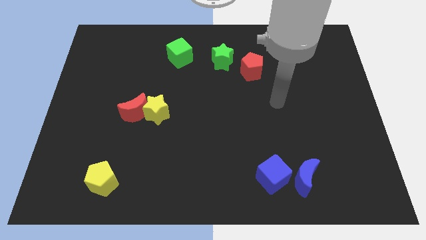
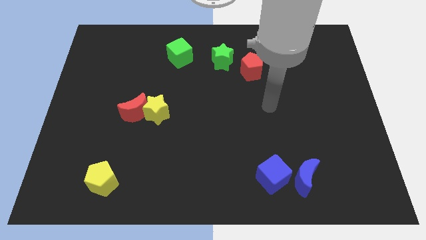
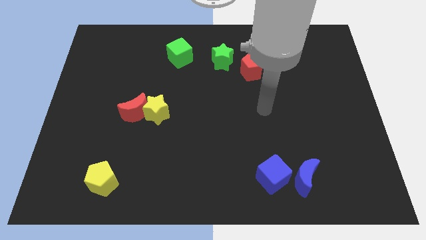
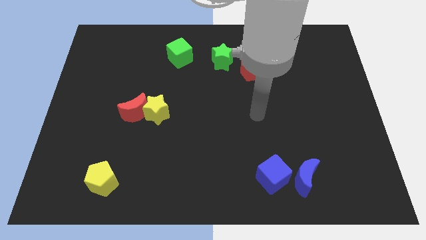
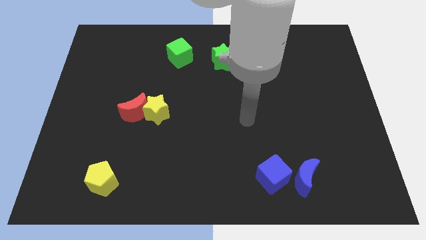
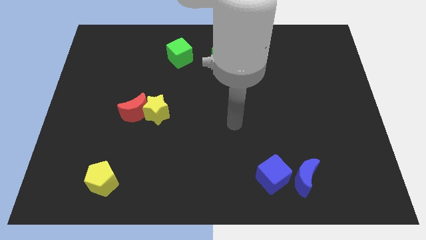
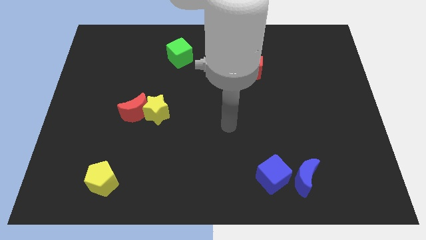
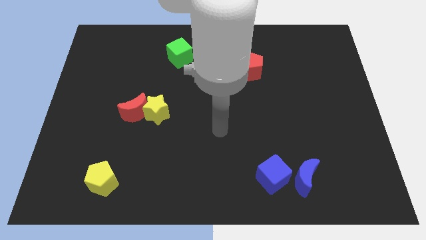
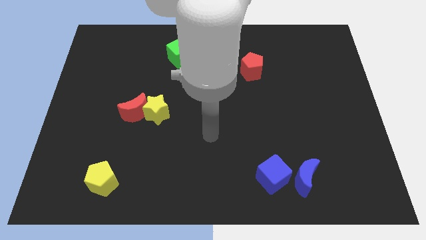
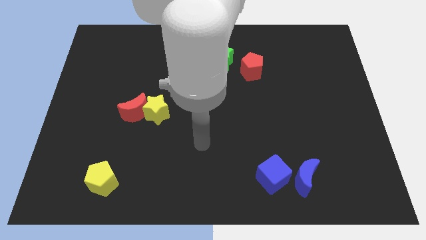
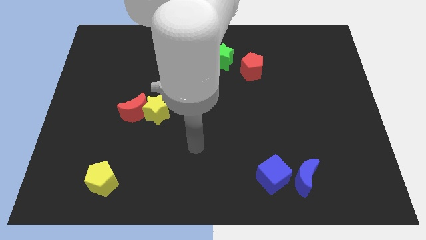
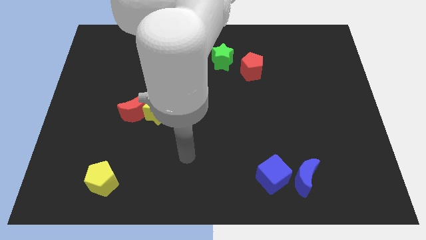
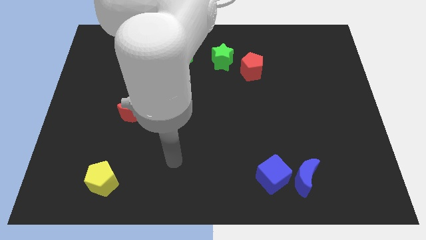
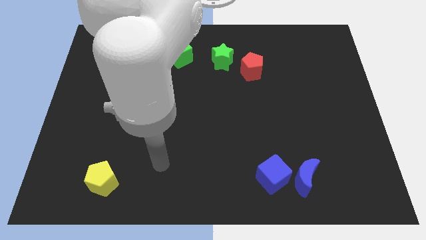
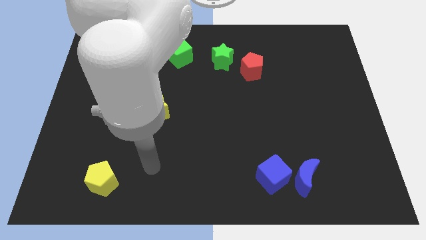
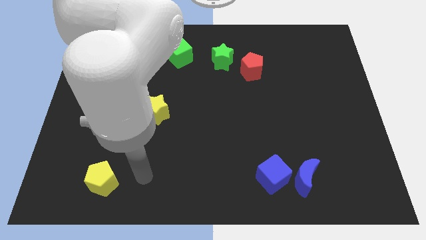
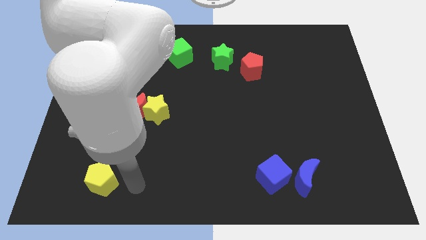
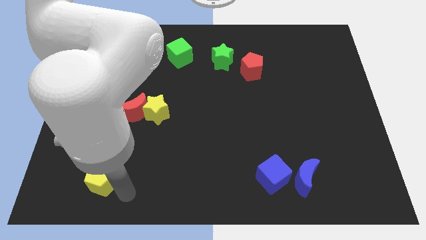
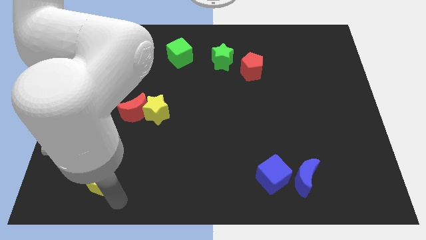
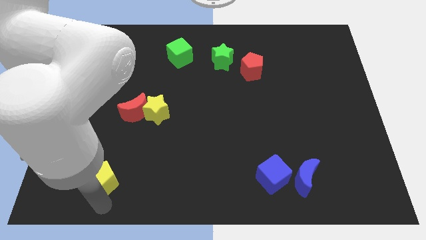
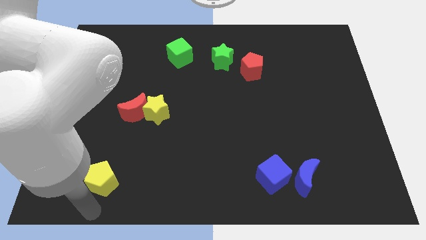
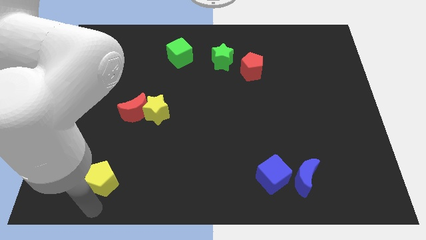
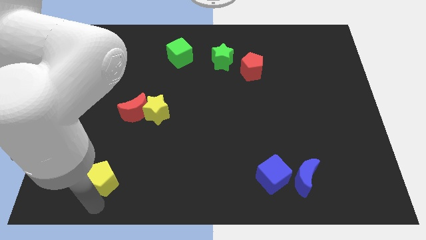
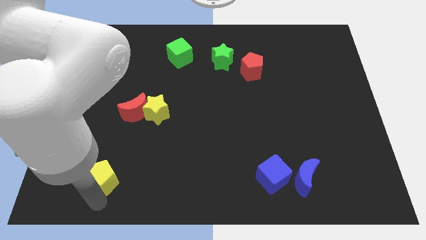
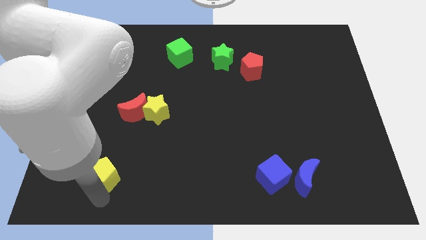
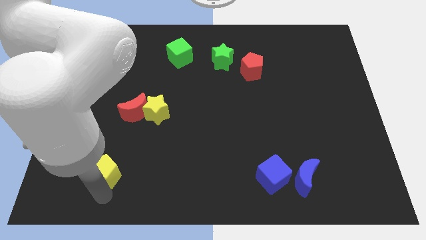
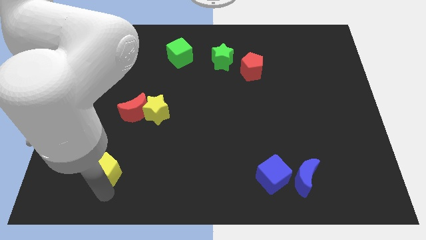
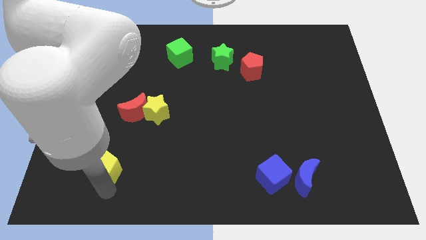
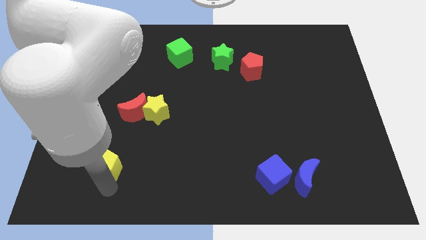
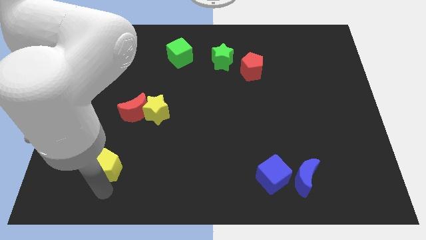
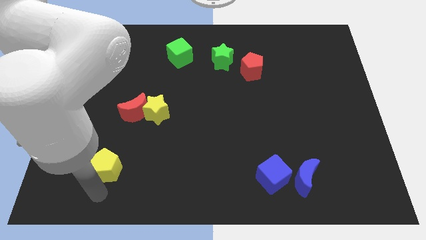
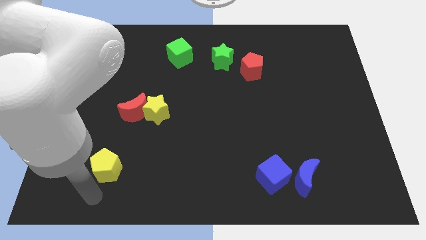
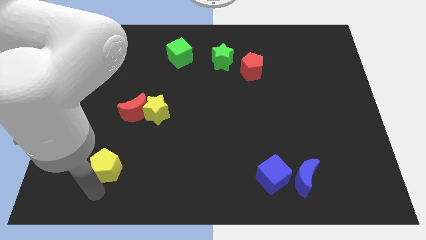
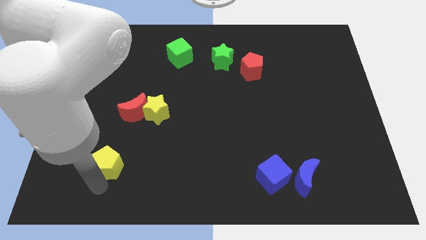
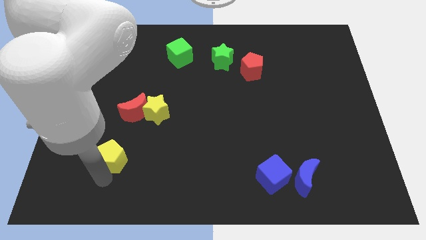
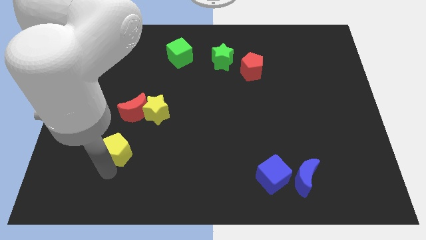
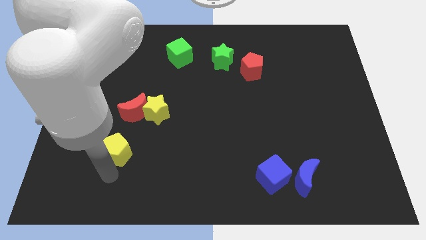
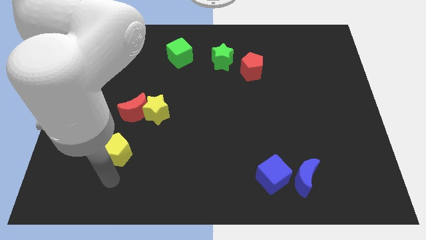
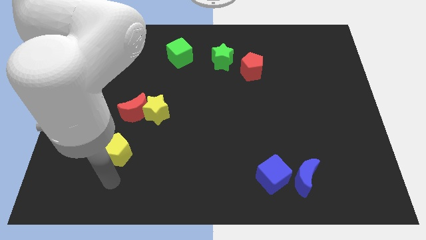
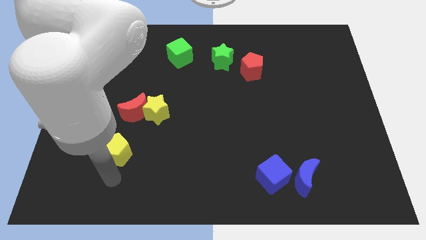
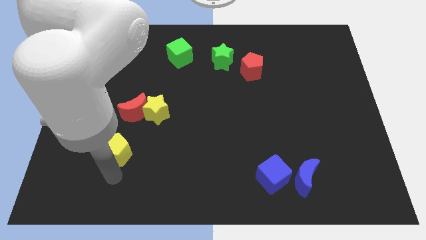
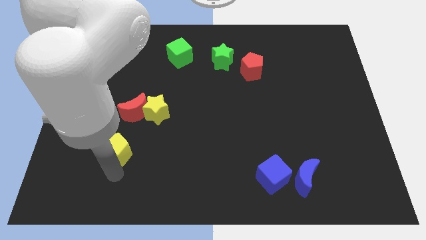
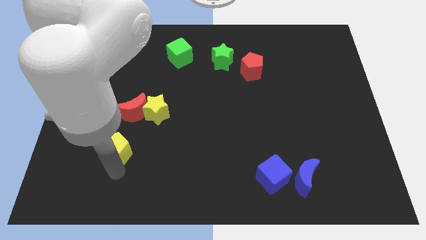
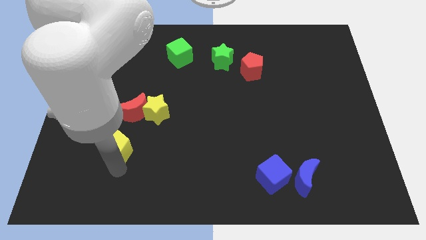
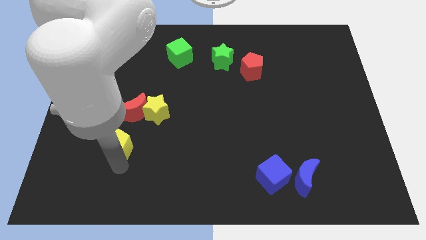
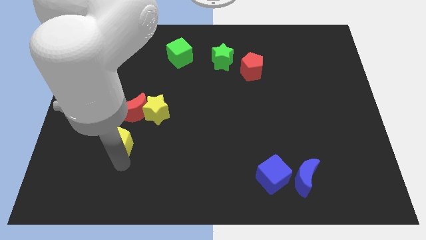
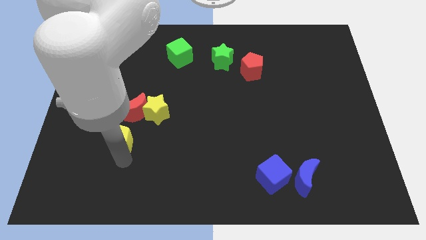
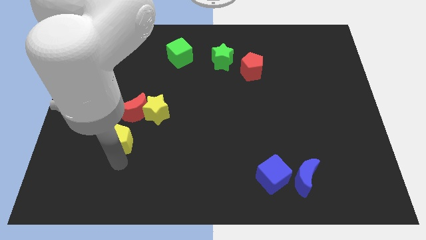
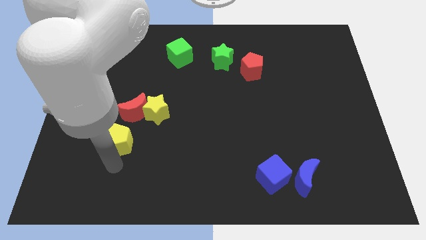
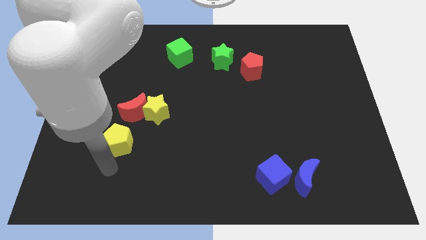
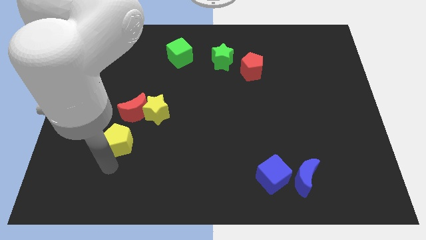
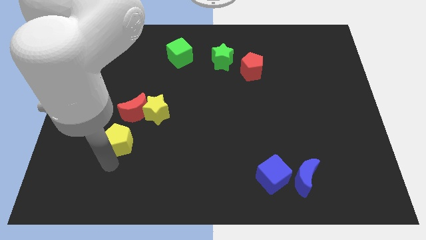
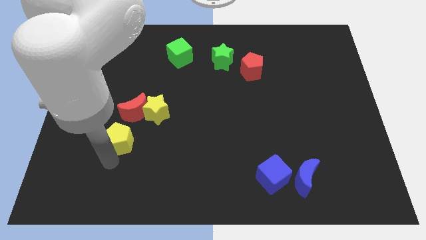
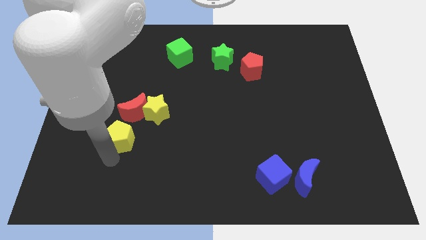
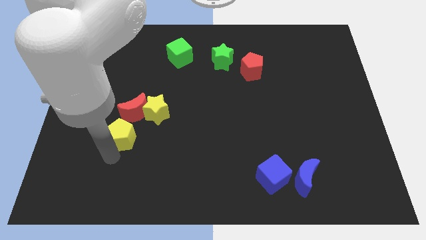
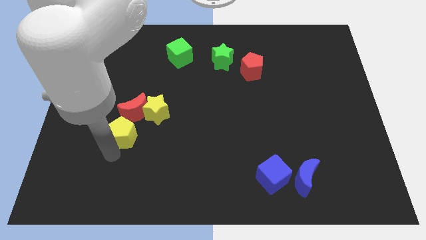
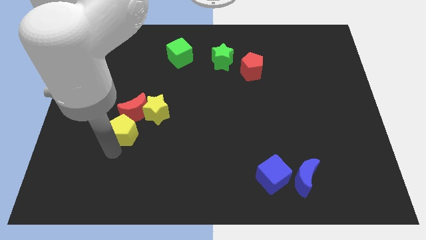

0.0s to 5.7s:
push the yellow pentagon to the red moon

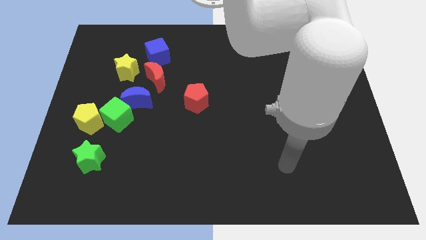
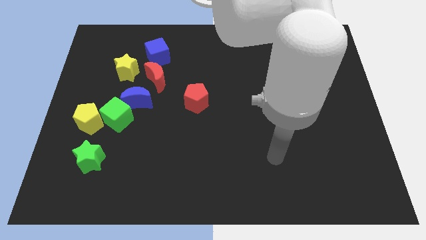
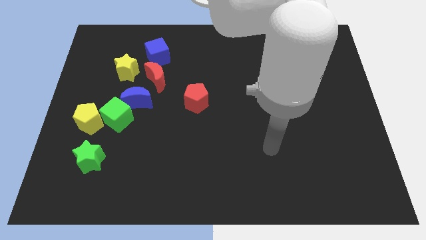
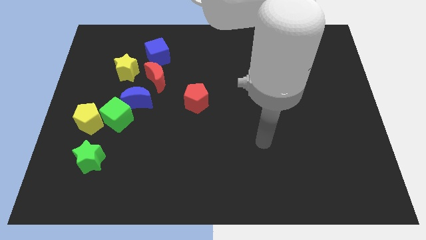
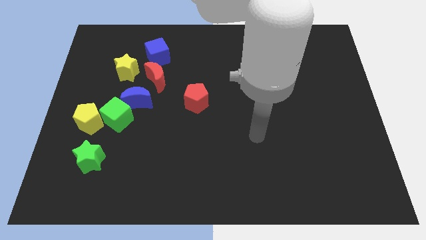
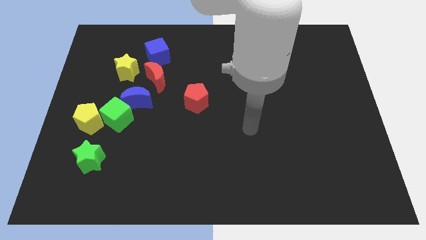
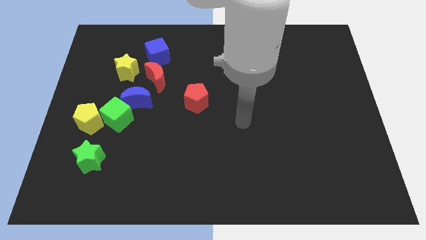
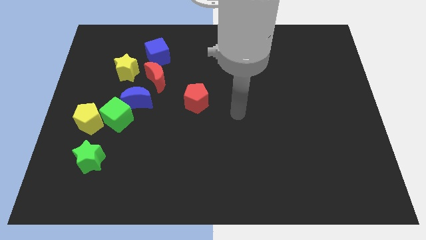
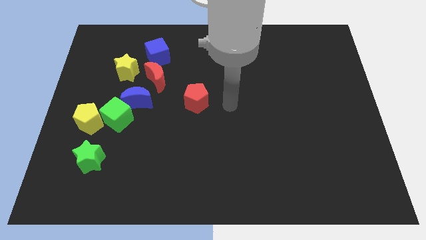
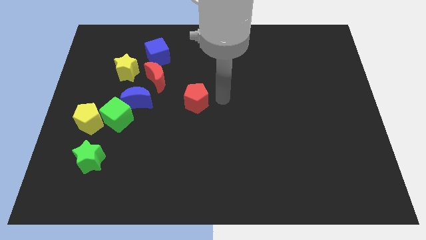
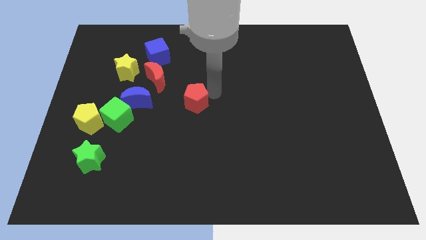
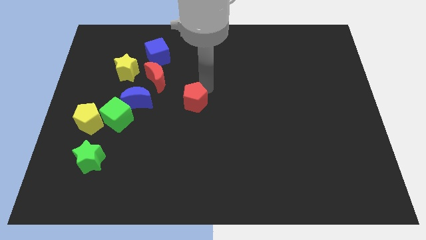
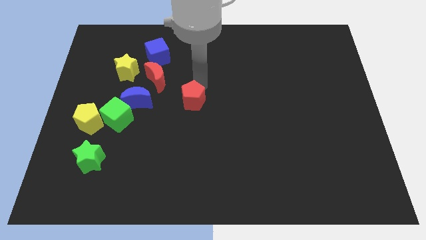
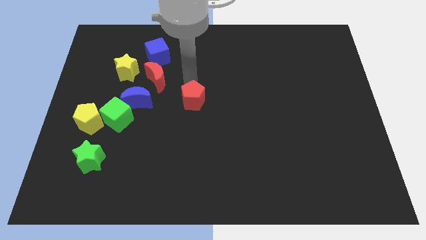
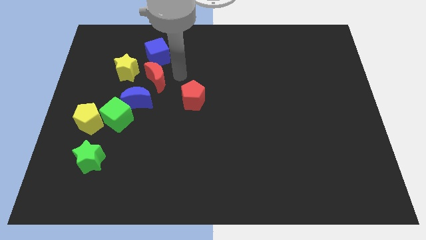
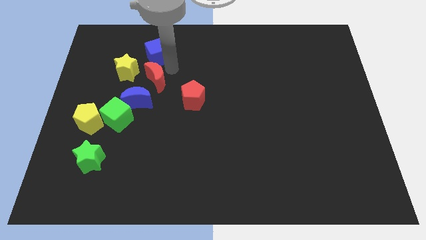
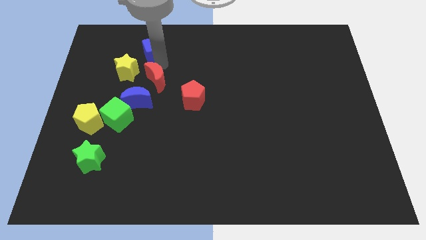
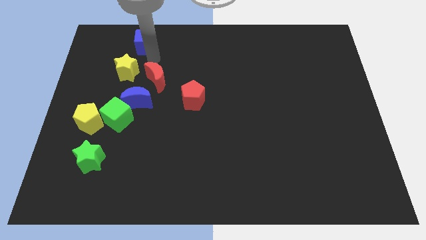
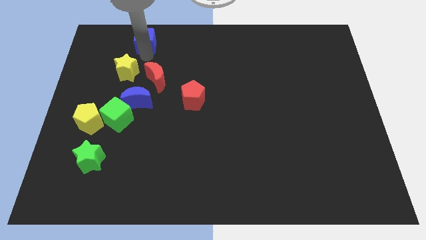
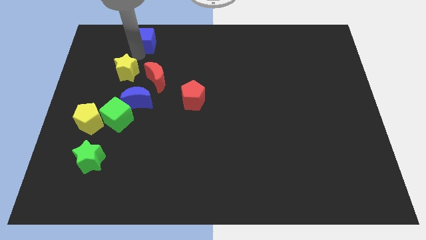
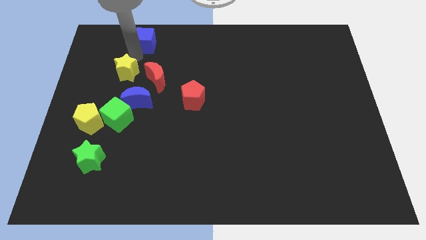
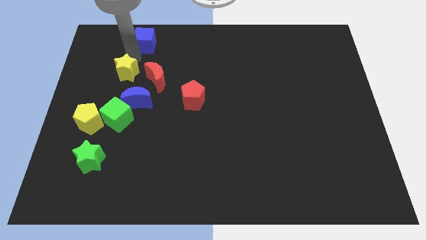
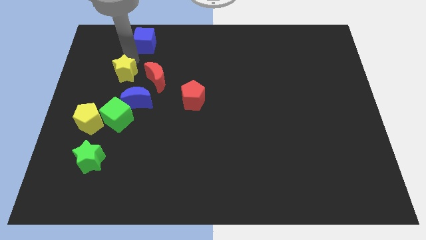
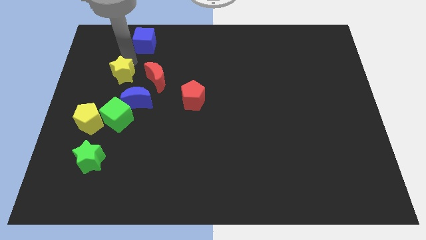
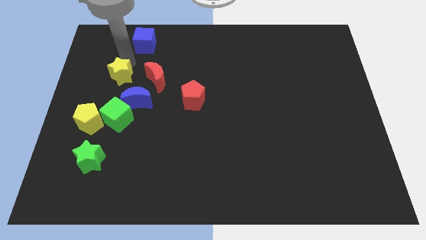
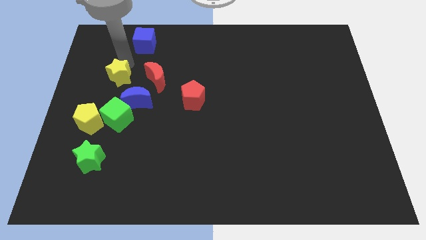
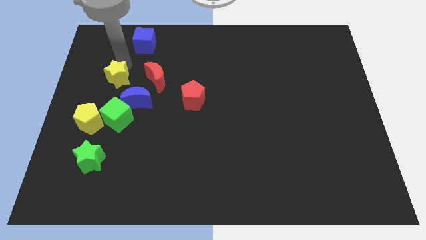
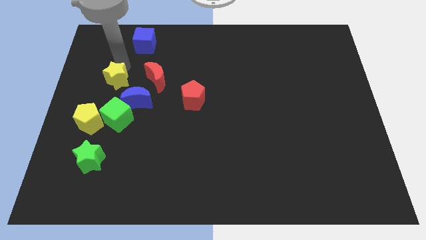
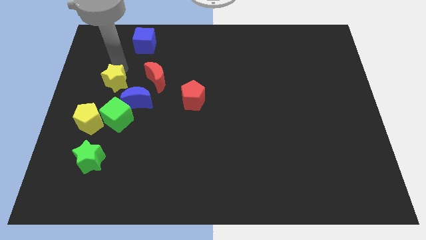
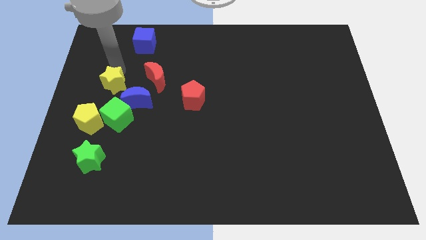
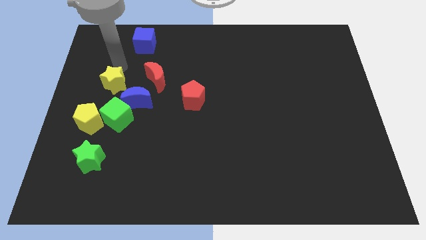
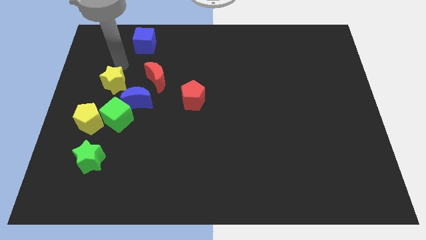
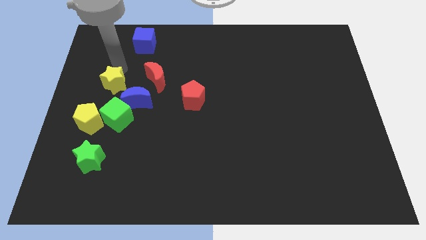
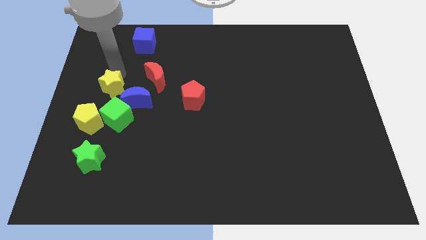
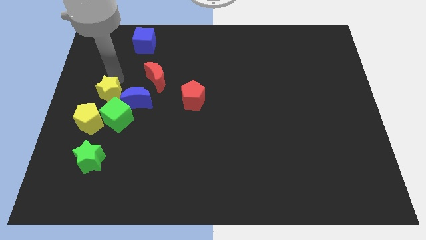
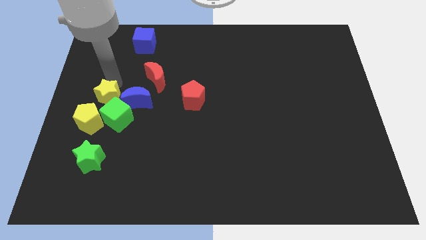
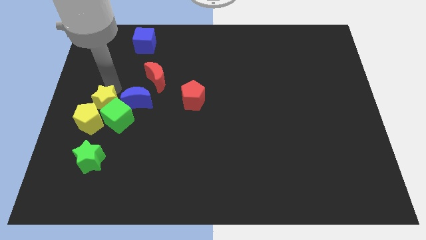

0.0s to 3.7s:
slide the yellow star next to the yellow pentagon
